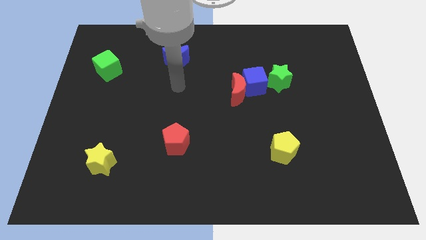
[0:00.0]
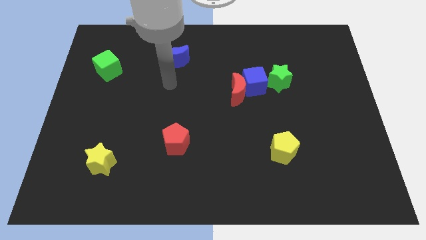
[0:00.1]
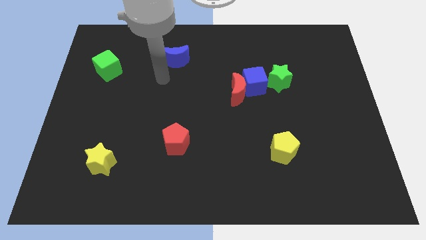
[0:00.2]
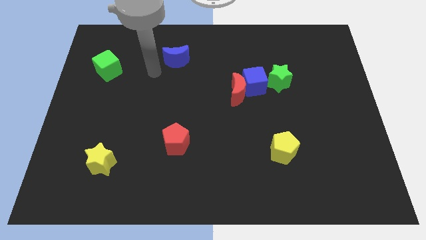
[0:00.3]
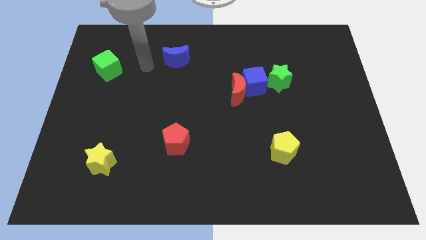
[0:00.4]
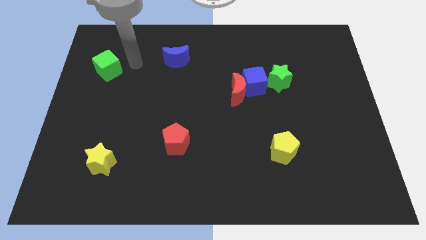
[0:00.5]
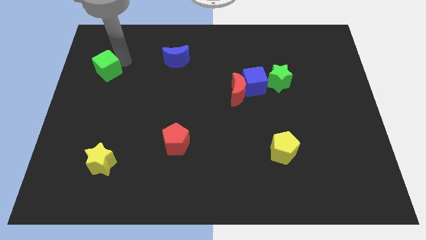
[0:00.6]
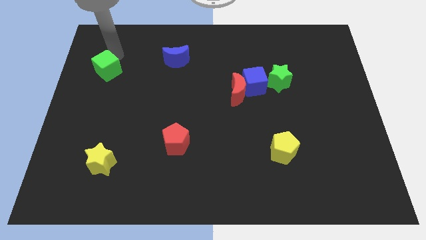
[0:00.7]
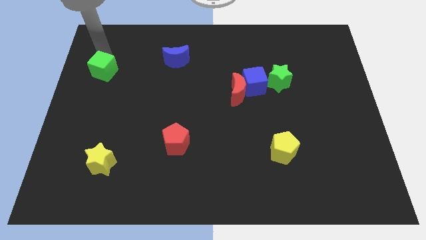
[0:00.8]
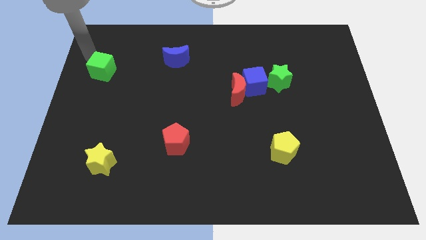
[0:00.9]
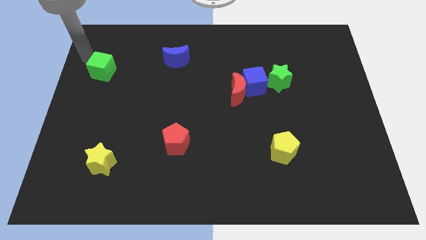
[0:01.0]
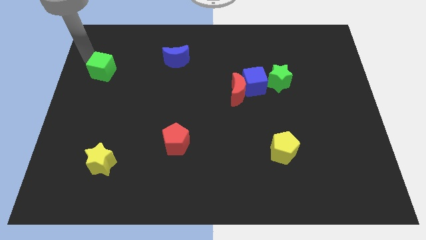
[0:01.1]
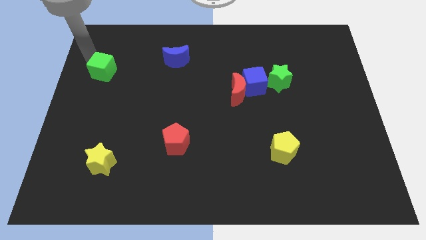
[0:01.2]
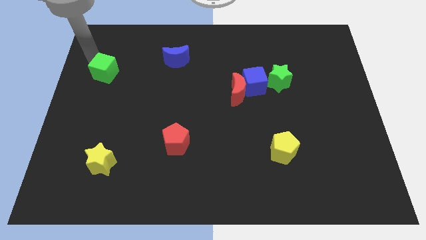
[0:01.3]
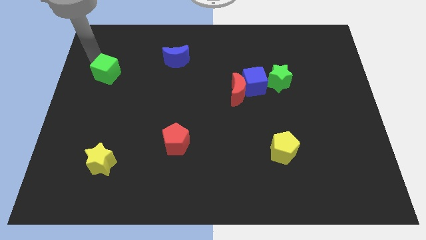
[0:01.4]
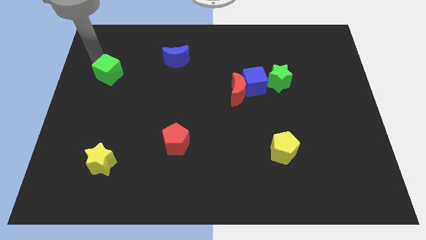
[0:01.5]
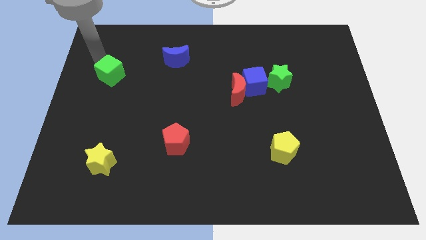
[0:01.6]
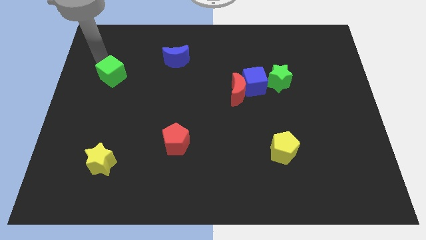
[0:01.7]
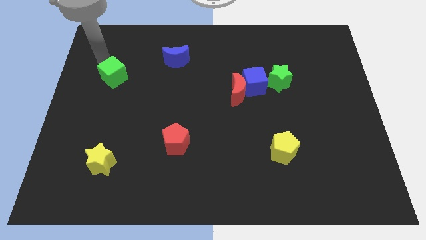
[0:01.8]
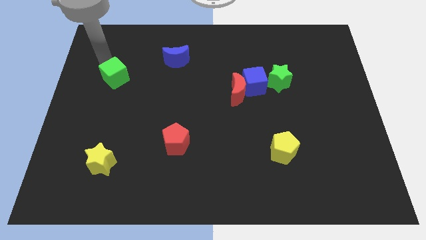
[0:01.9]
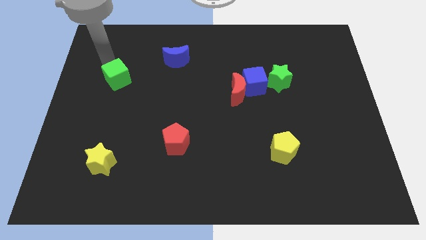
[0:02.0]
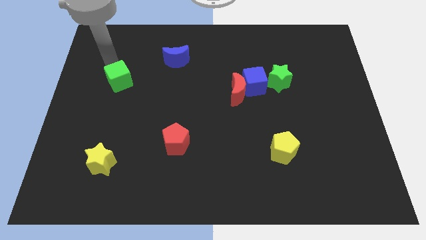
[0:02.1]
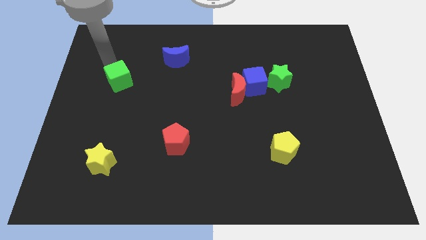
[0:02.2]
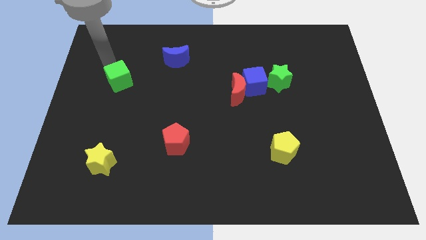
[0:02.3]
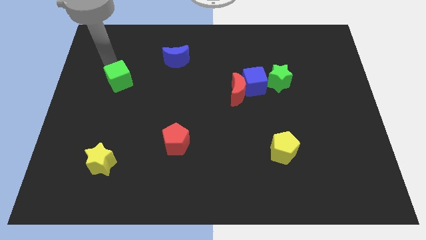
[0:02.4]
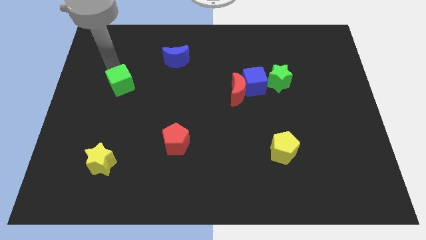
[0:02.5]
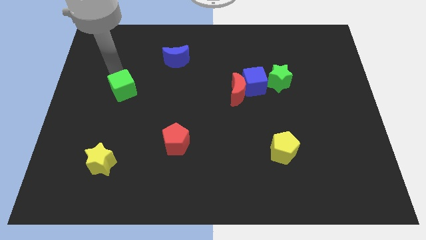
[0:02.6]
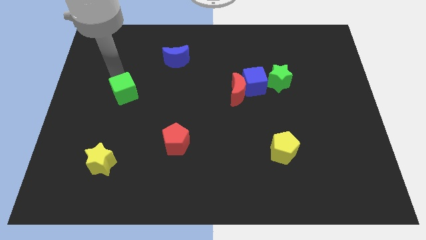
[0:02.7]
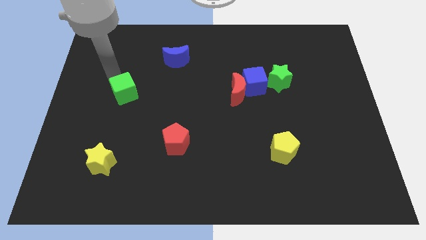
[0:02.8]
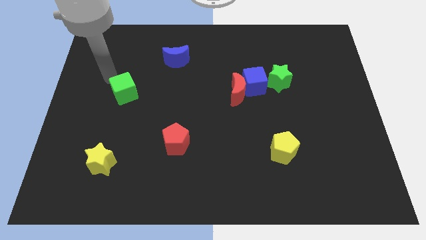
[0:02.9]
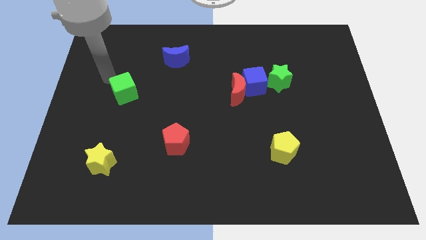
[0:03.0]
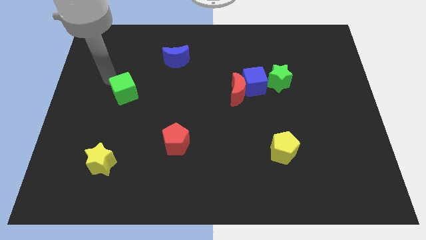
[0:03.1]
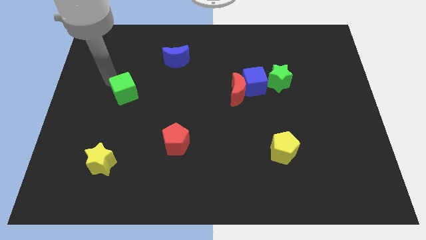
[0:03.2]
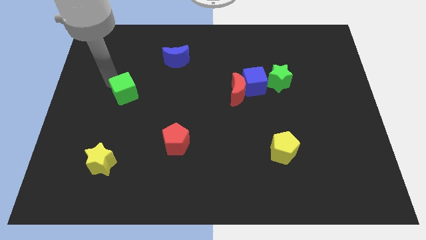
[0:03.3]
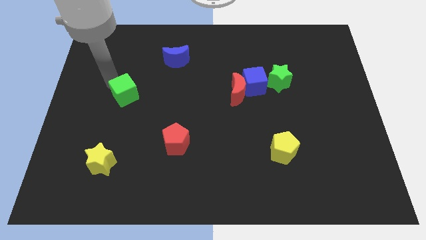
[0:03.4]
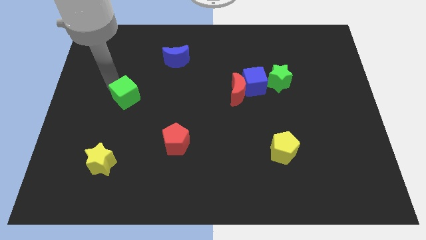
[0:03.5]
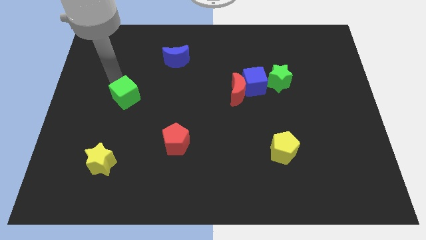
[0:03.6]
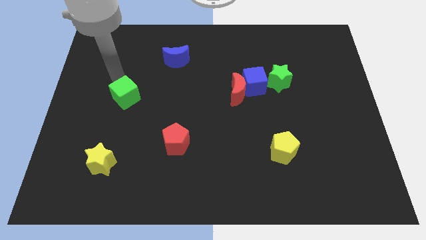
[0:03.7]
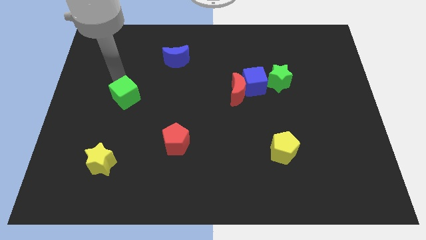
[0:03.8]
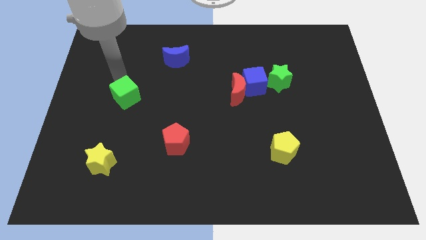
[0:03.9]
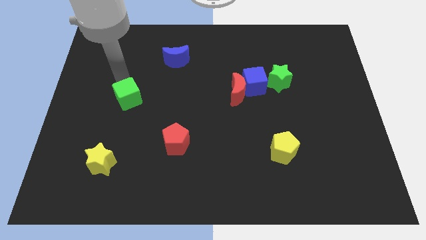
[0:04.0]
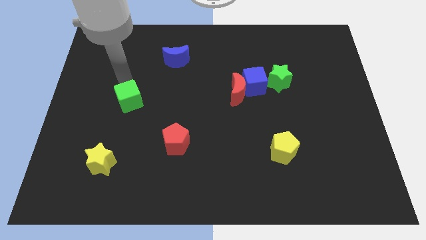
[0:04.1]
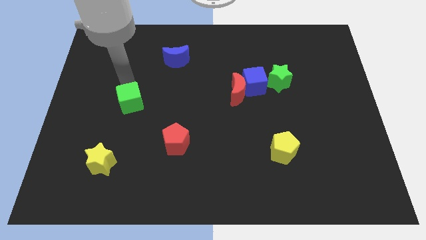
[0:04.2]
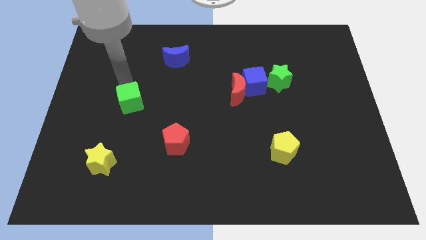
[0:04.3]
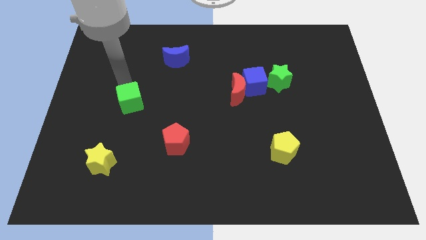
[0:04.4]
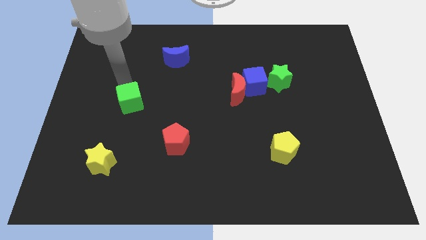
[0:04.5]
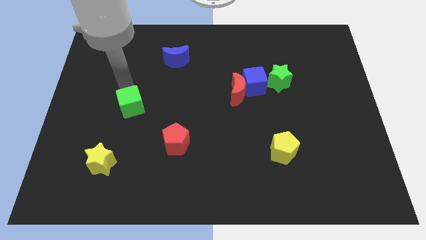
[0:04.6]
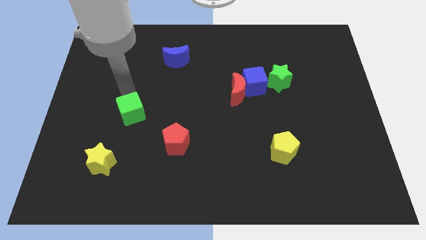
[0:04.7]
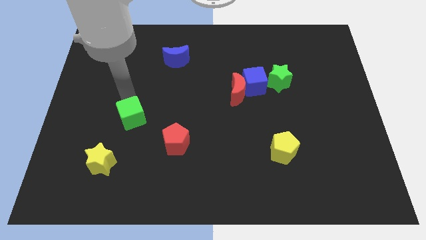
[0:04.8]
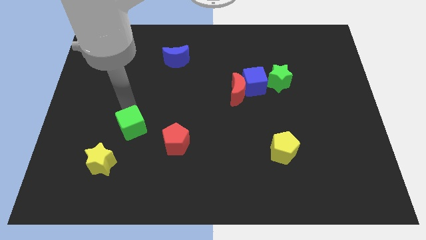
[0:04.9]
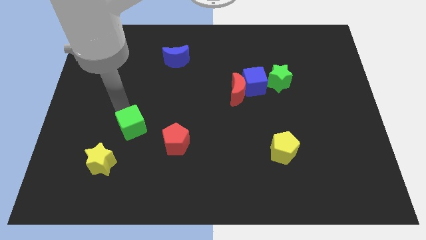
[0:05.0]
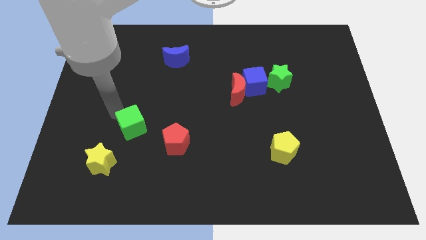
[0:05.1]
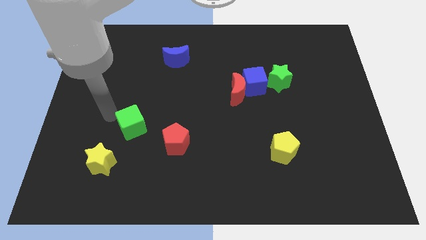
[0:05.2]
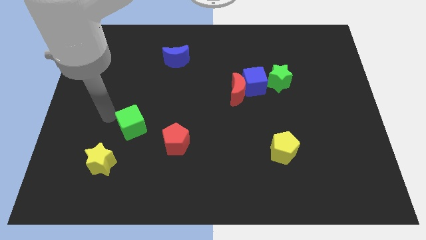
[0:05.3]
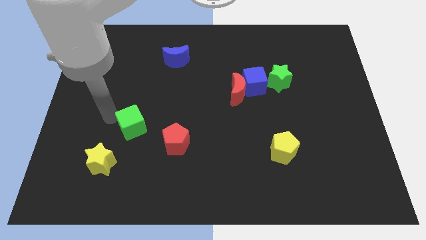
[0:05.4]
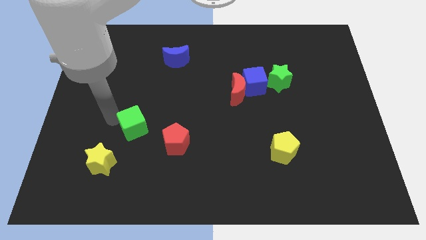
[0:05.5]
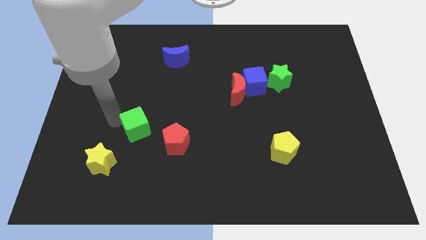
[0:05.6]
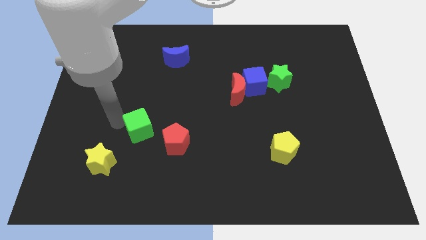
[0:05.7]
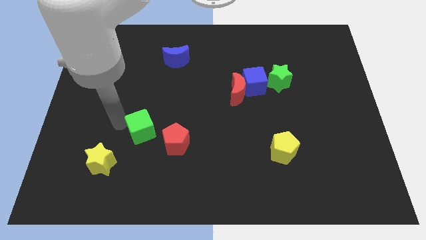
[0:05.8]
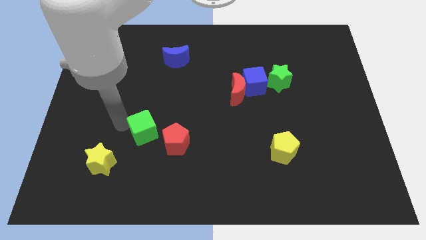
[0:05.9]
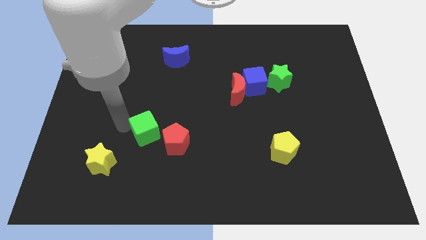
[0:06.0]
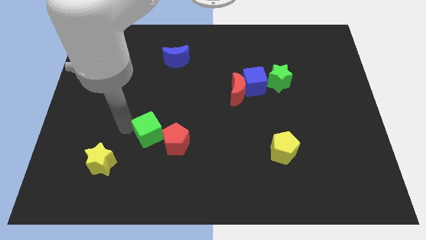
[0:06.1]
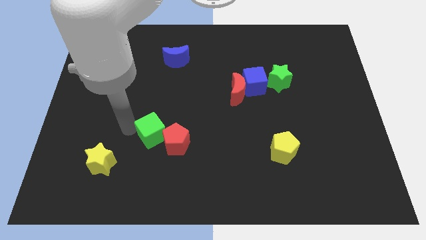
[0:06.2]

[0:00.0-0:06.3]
put the green cube towards the red pentagon

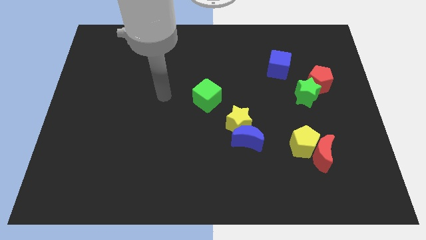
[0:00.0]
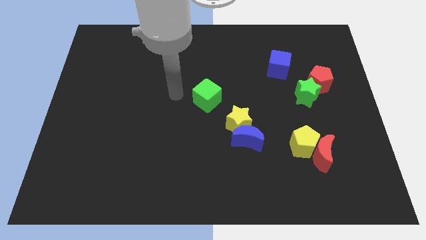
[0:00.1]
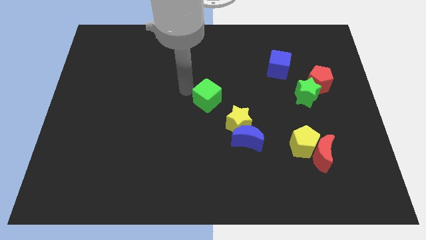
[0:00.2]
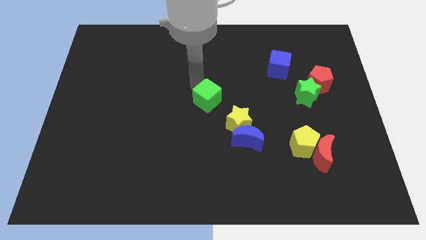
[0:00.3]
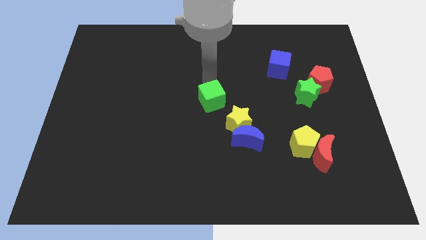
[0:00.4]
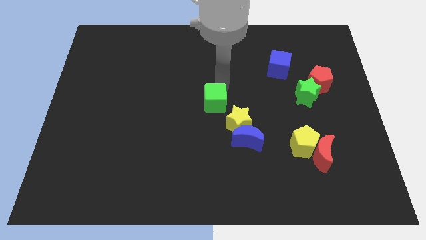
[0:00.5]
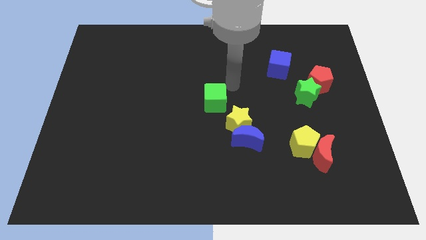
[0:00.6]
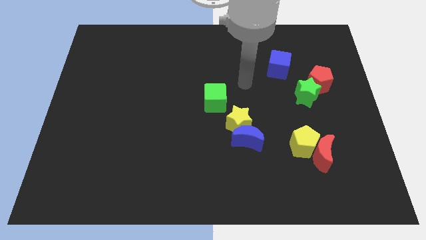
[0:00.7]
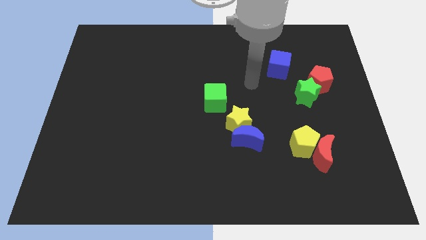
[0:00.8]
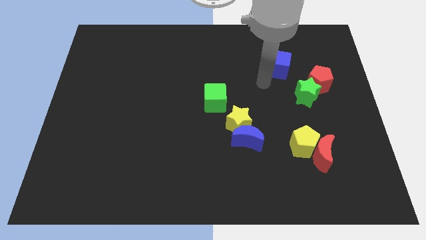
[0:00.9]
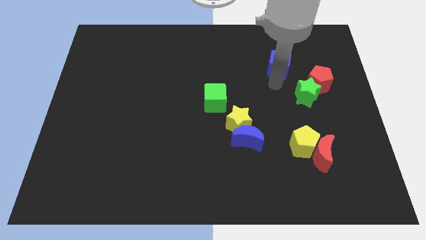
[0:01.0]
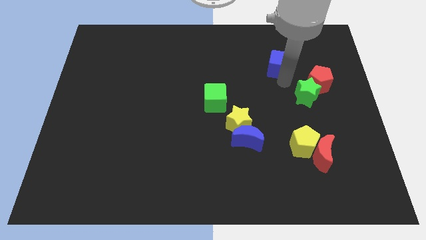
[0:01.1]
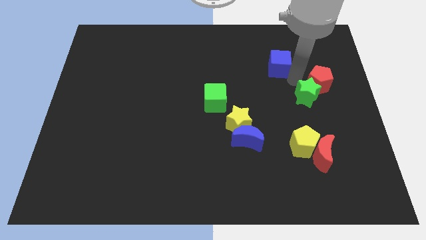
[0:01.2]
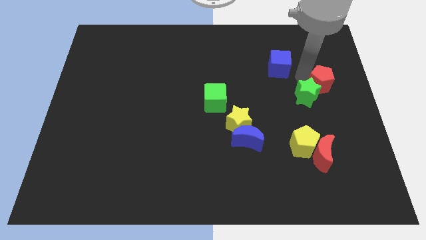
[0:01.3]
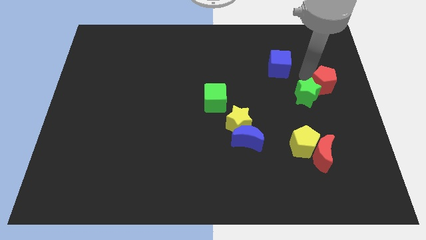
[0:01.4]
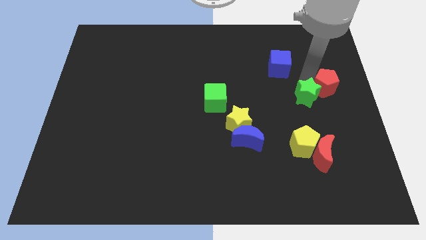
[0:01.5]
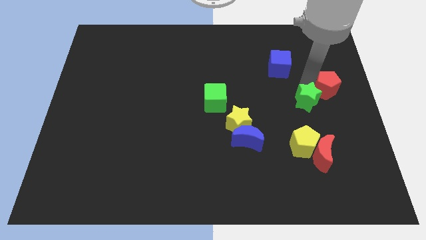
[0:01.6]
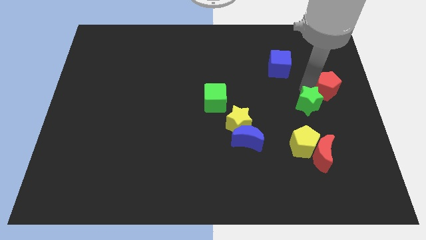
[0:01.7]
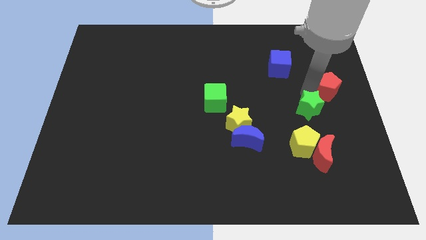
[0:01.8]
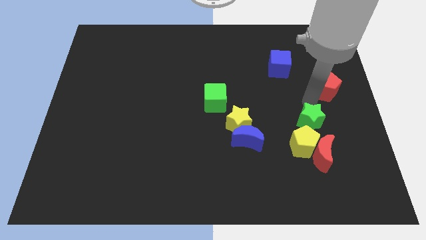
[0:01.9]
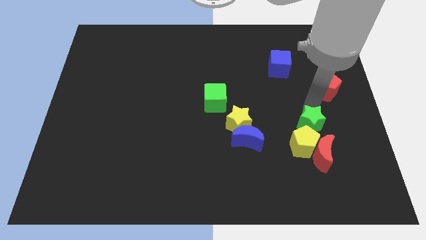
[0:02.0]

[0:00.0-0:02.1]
put the green star close to the yellow pentagon
